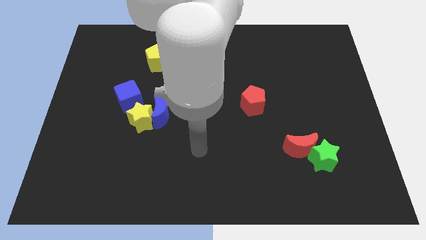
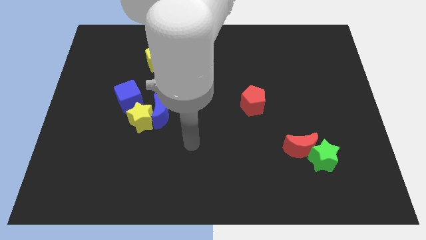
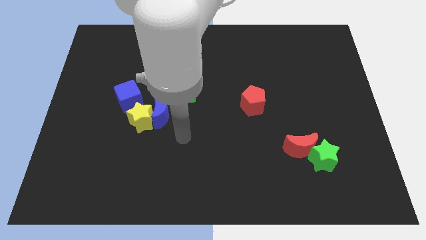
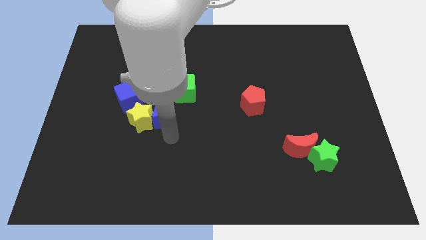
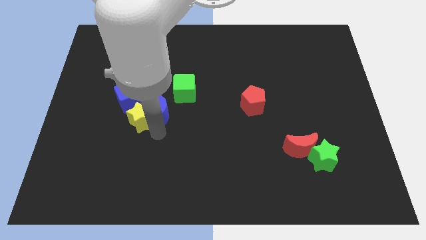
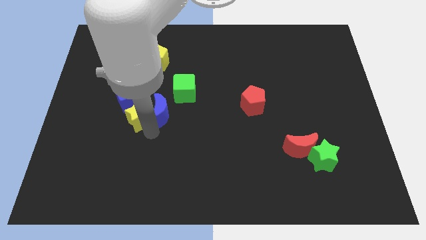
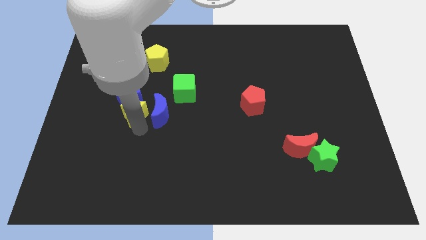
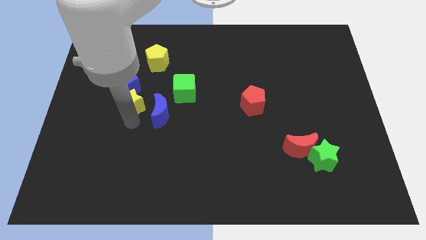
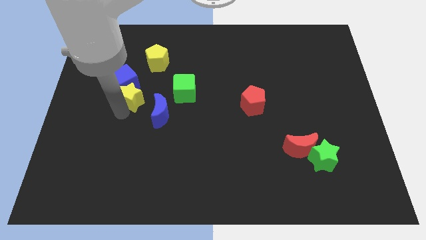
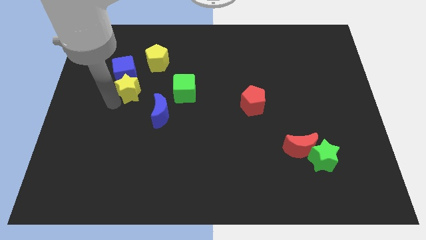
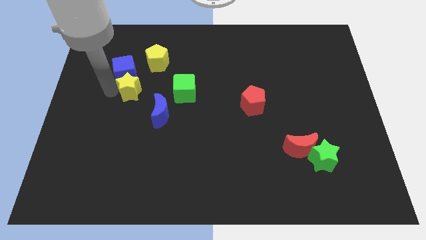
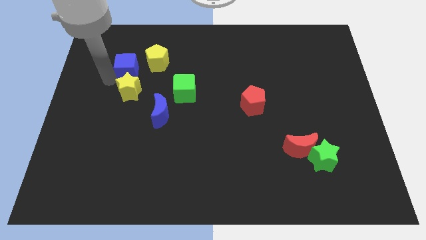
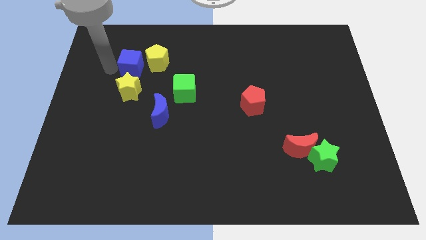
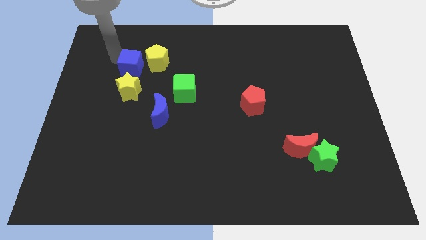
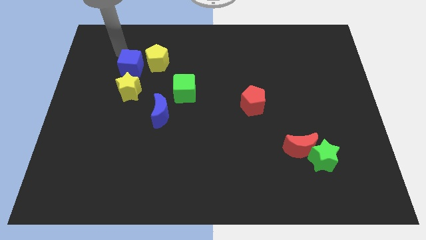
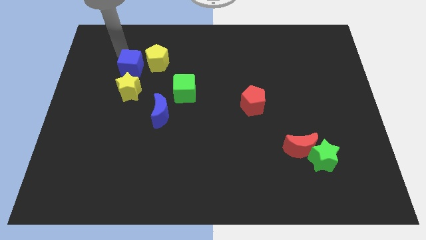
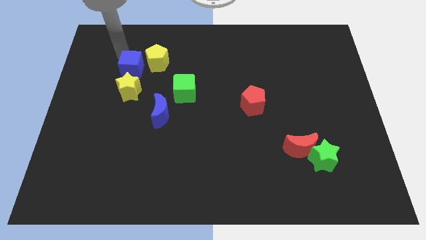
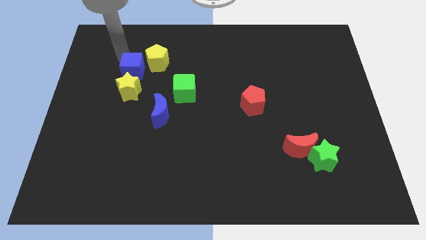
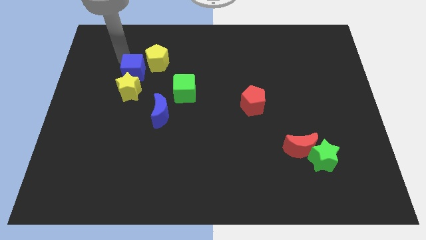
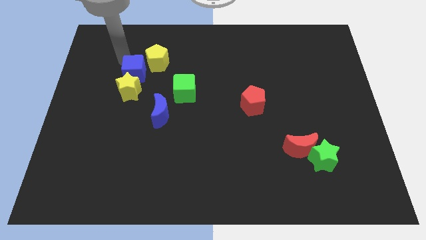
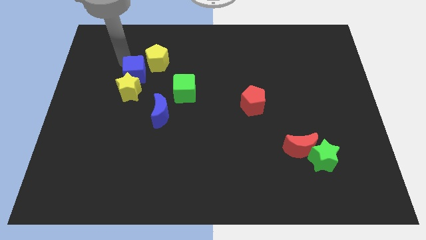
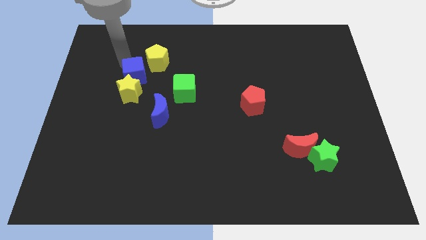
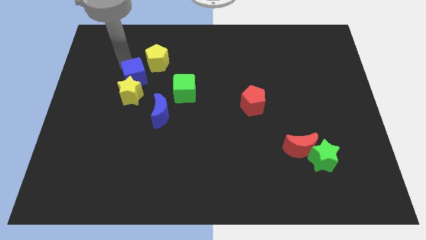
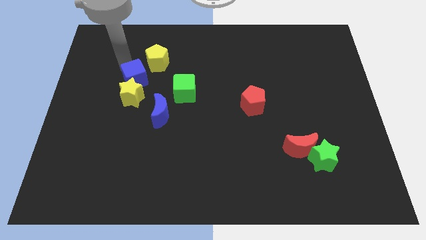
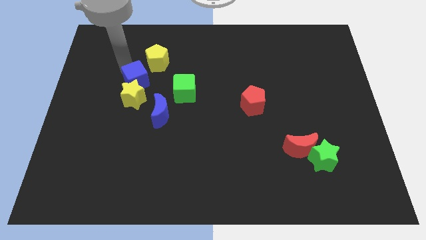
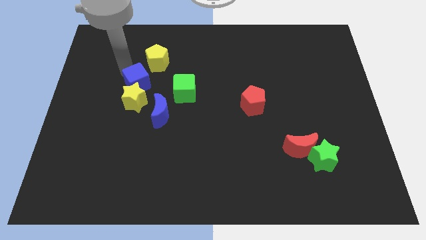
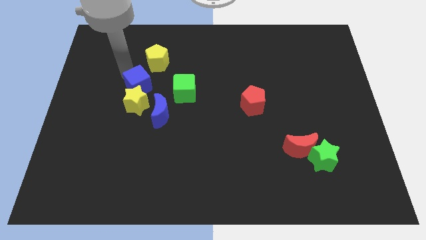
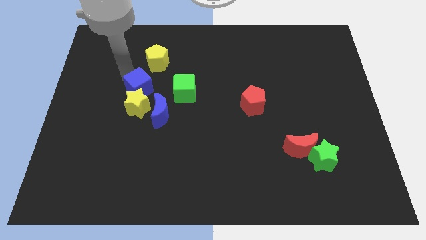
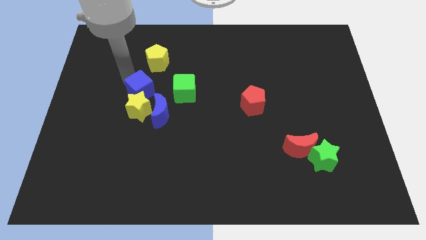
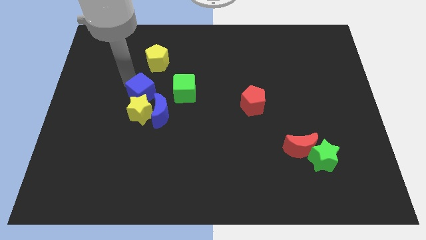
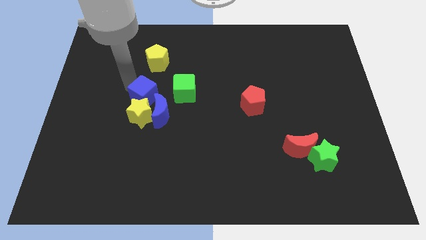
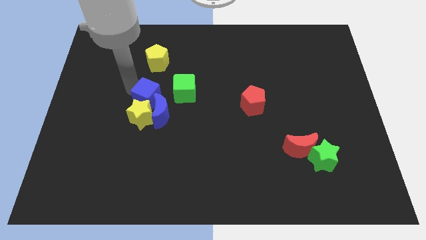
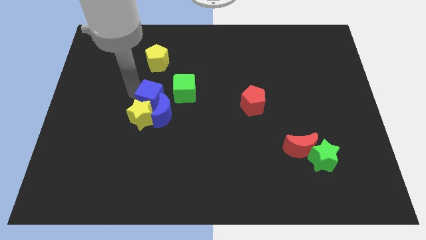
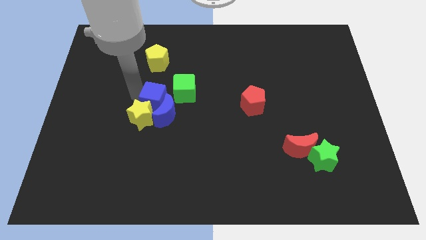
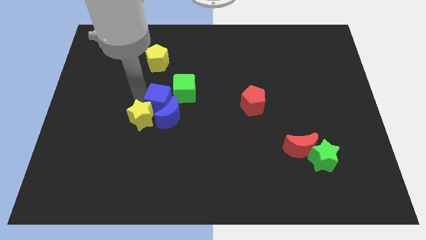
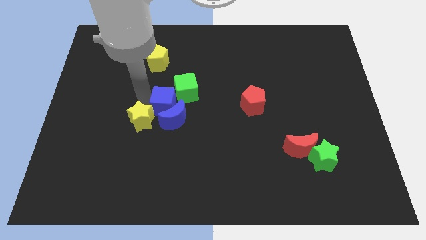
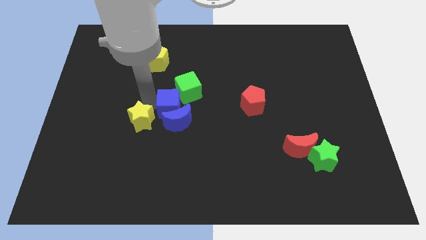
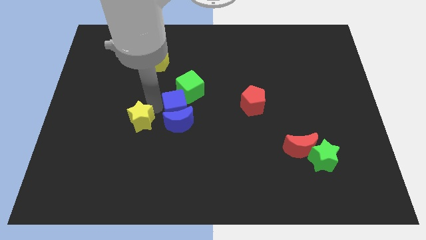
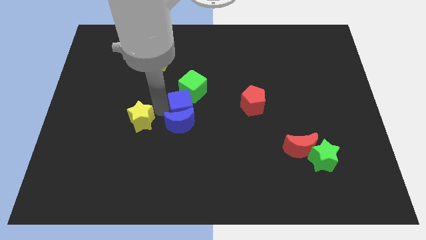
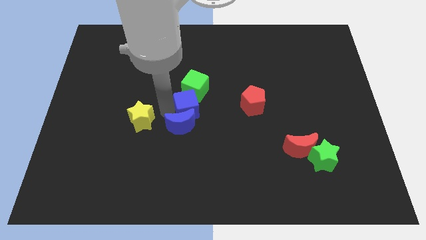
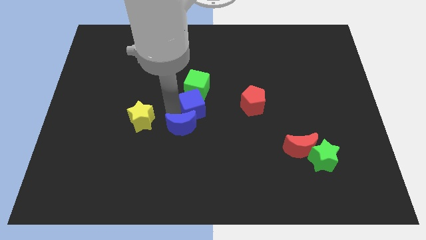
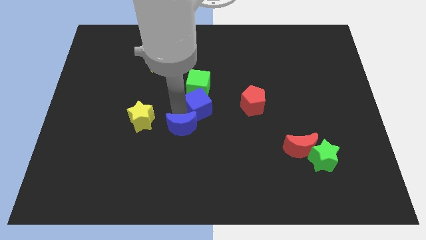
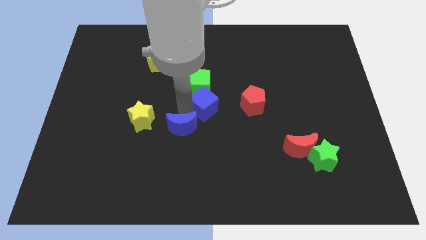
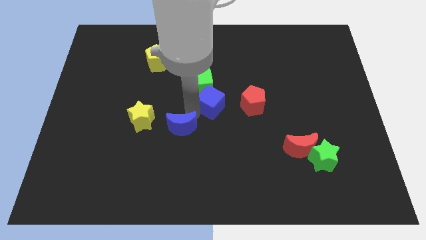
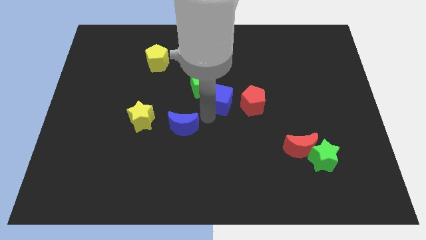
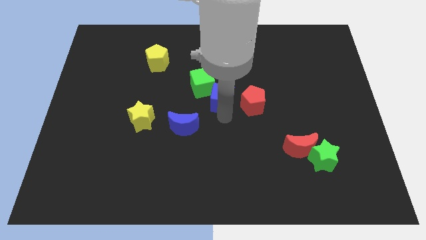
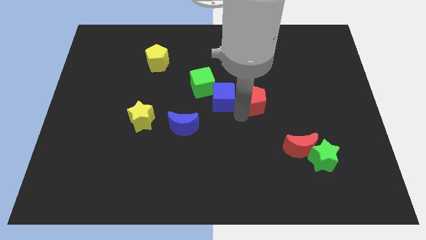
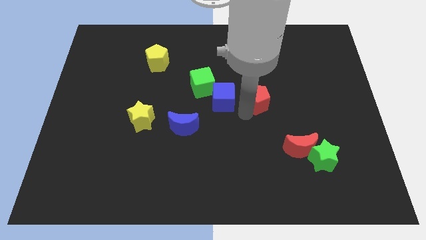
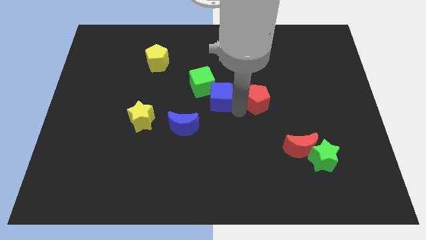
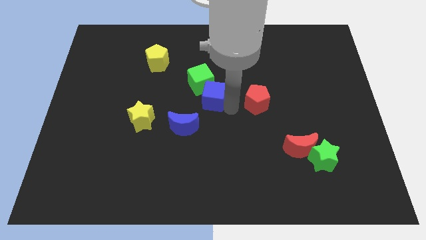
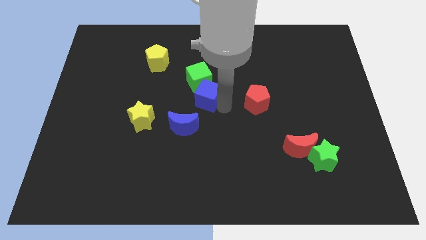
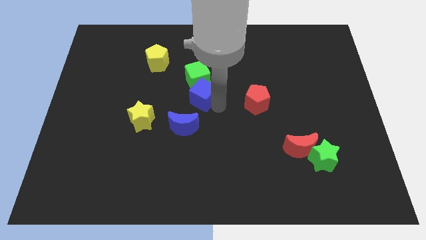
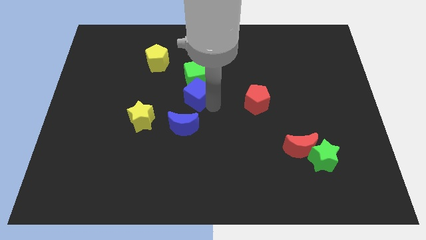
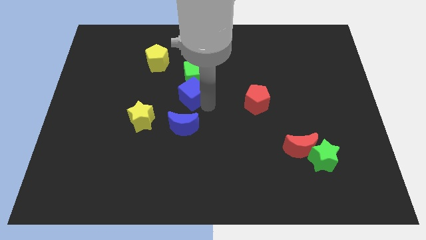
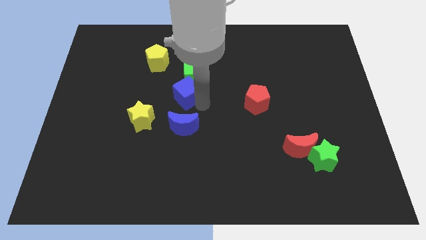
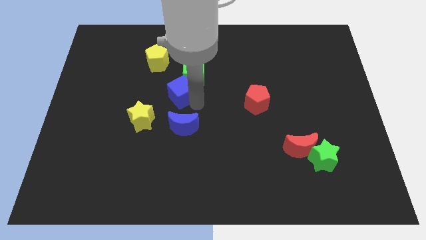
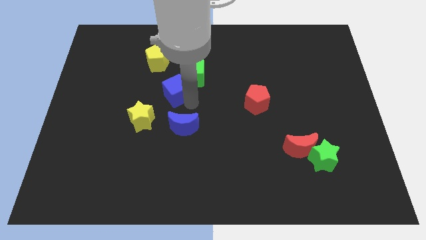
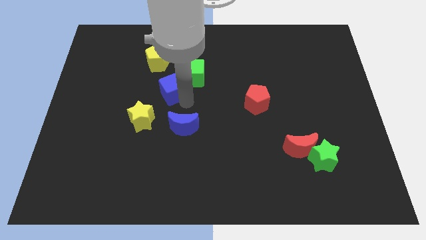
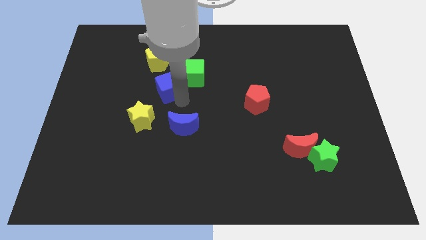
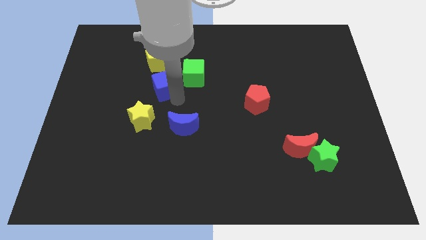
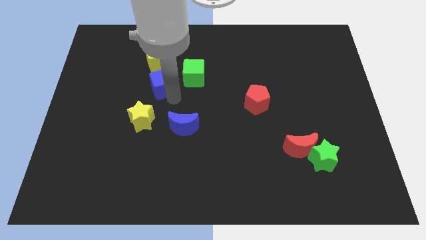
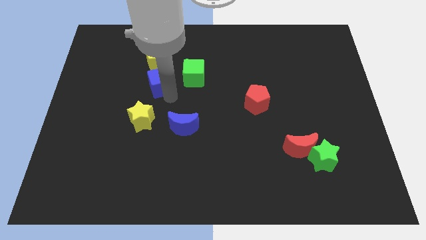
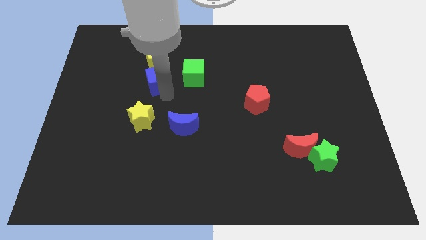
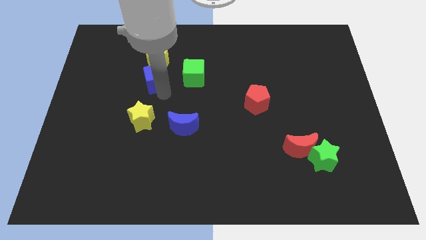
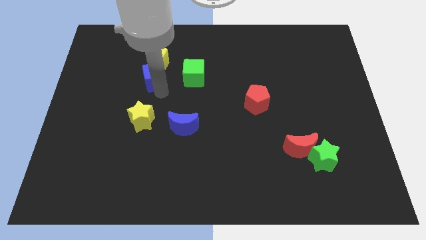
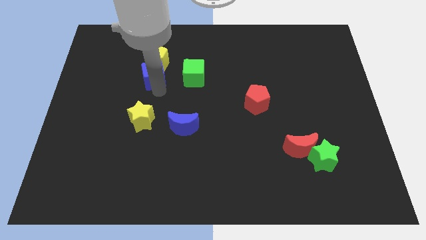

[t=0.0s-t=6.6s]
put the blue cube close to the yellow pentagon

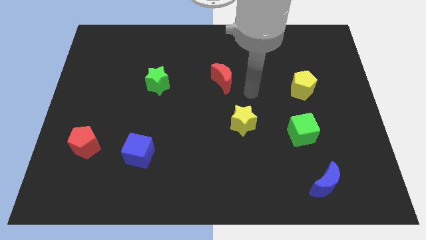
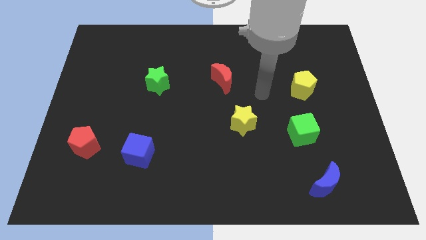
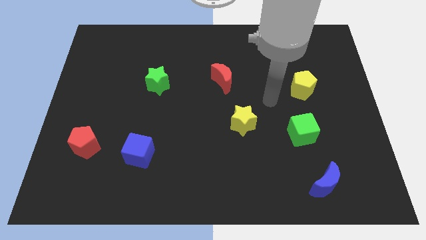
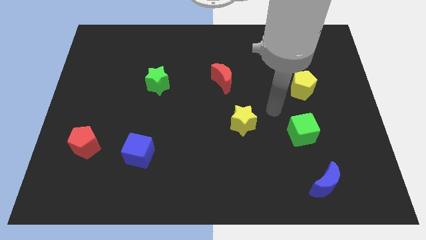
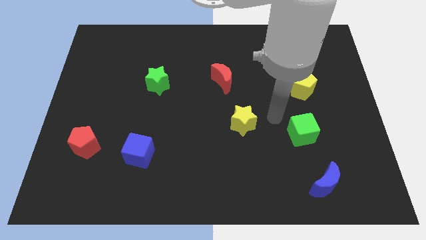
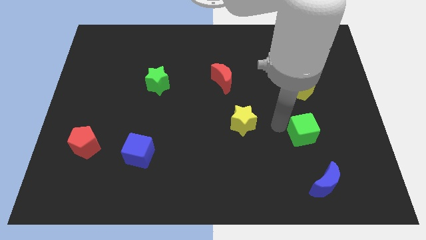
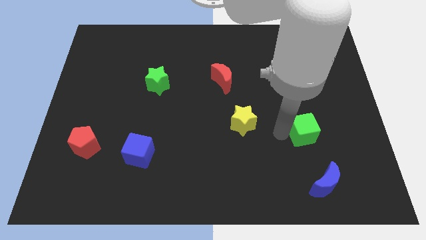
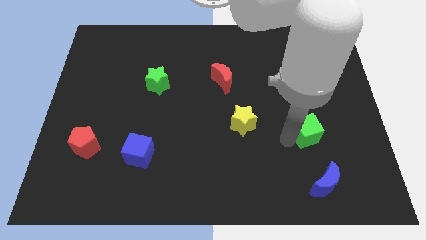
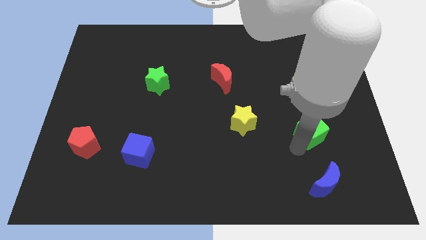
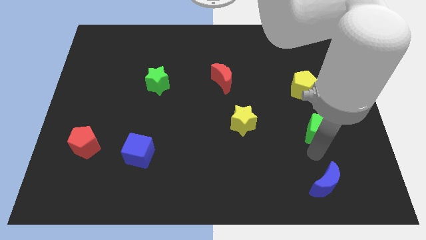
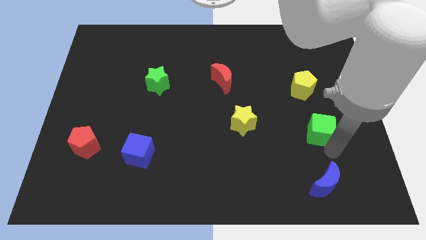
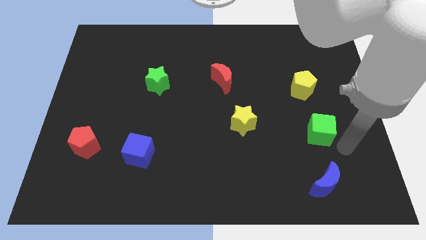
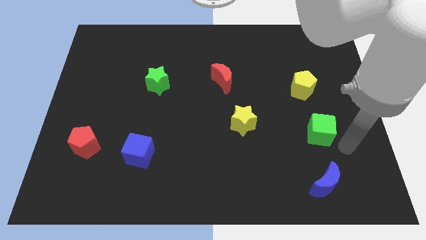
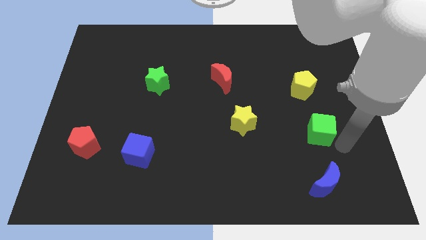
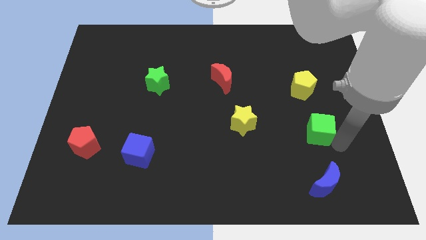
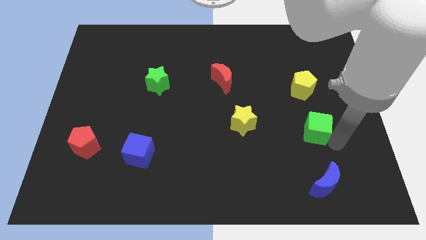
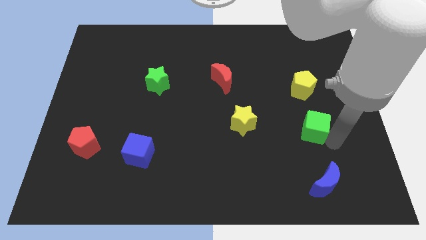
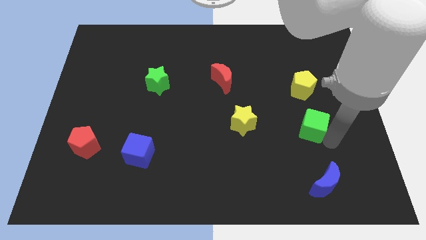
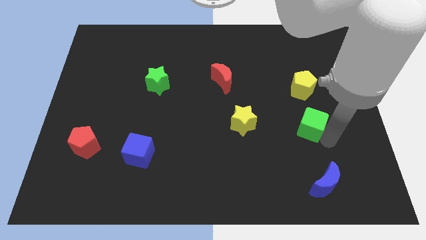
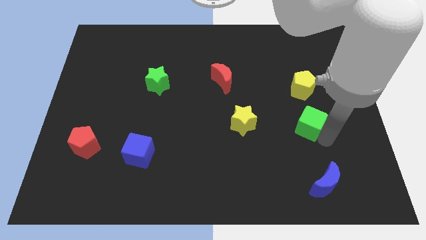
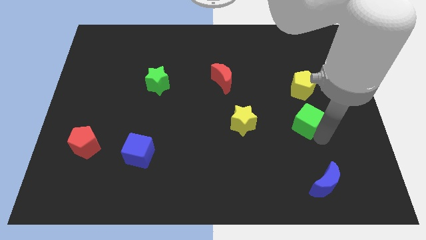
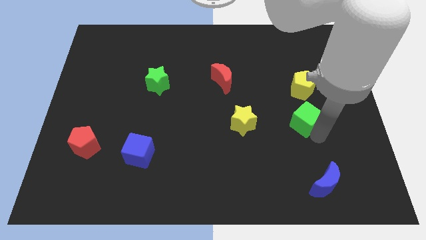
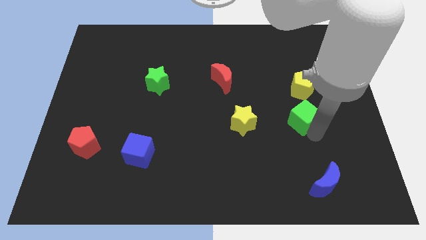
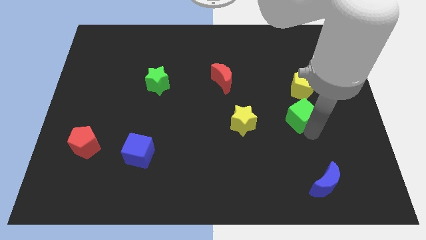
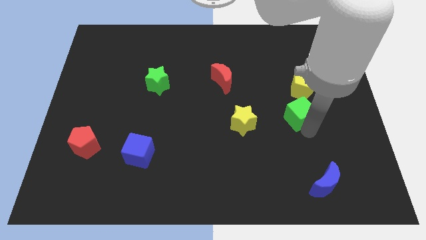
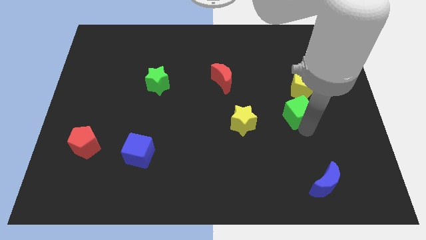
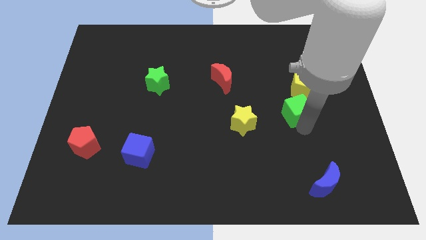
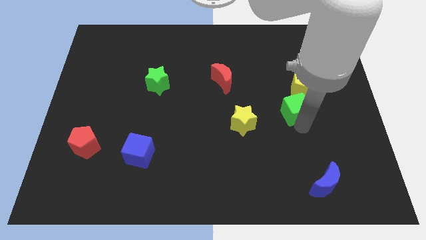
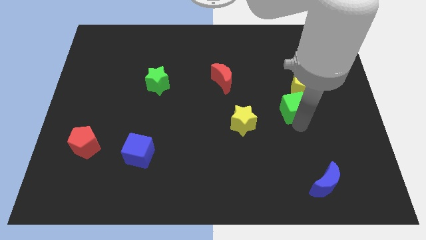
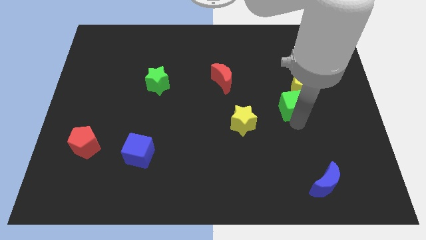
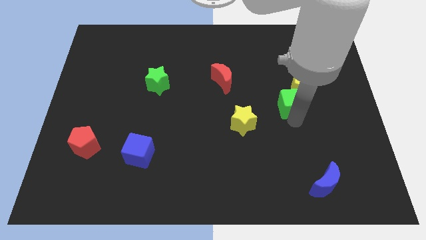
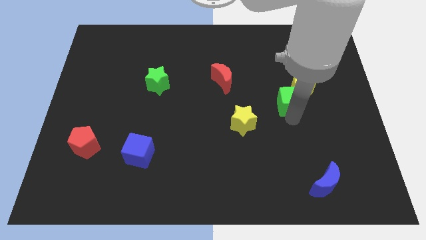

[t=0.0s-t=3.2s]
slide the green cube close to the yellow pentagon
